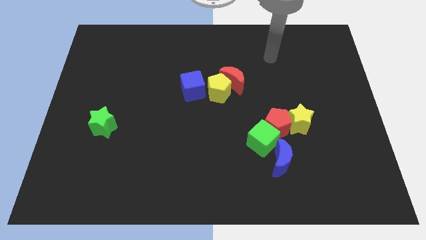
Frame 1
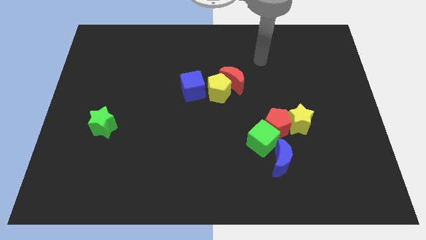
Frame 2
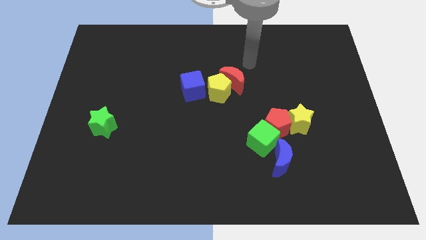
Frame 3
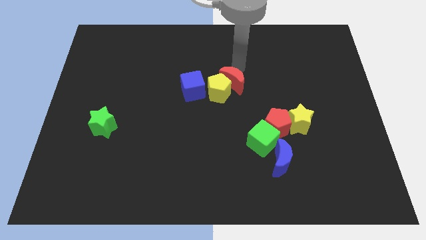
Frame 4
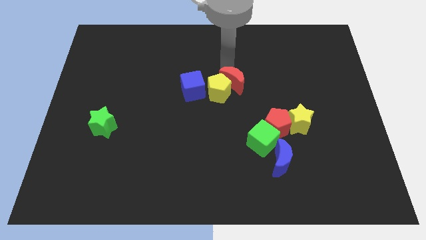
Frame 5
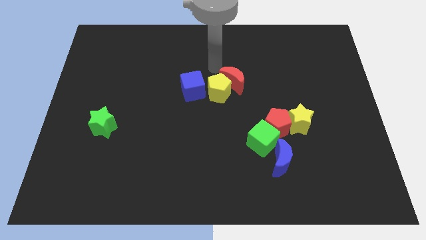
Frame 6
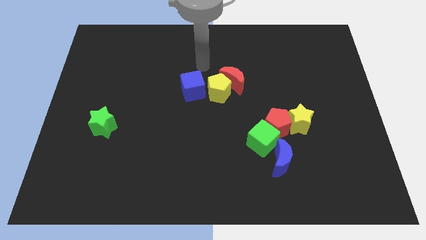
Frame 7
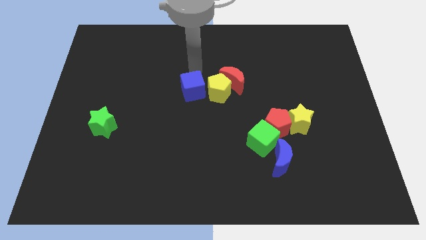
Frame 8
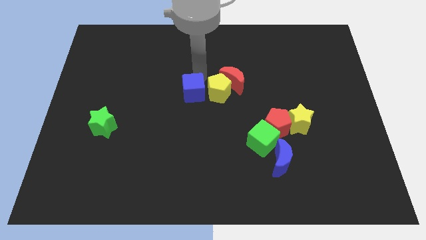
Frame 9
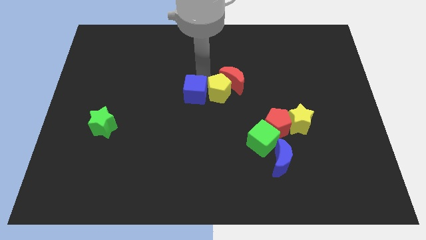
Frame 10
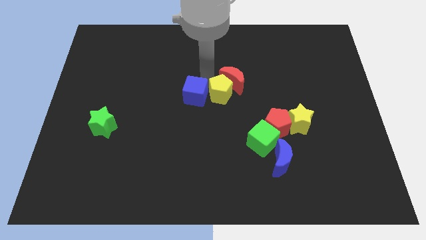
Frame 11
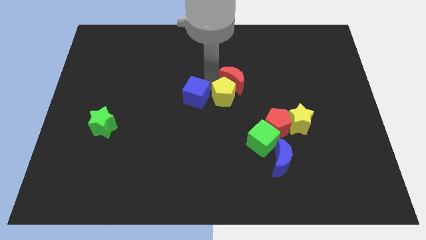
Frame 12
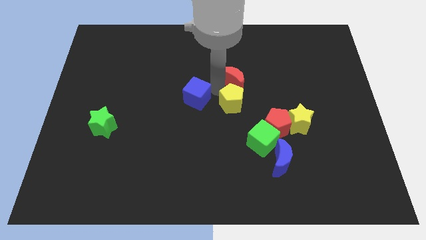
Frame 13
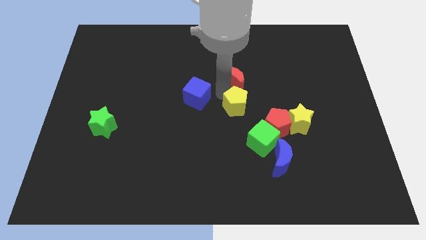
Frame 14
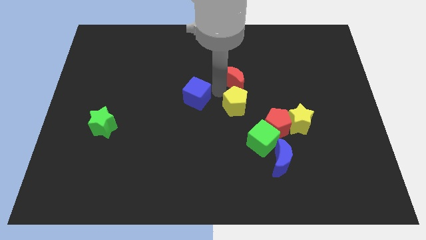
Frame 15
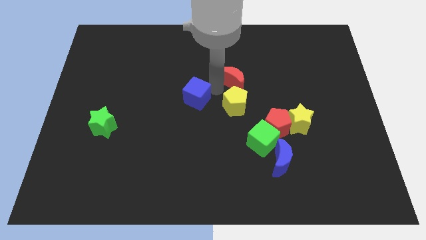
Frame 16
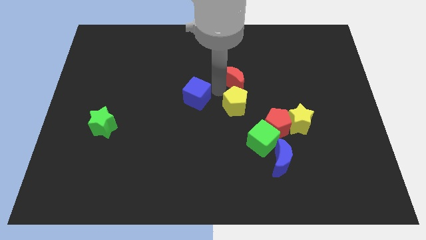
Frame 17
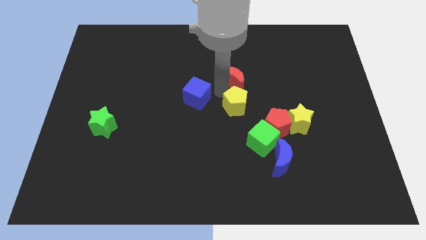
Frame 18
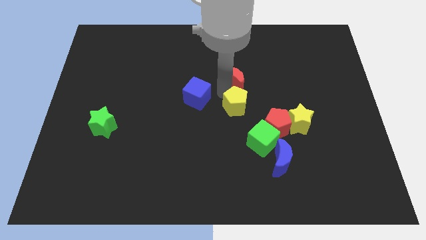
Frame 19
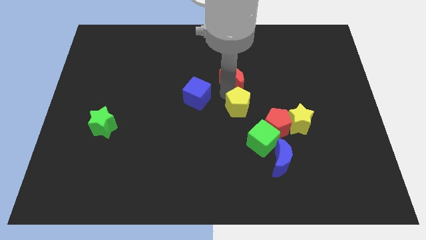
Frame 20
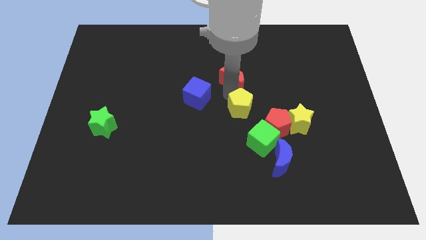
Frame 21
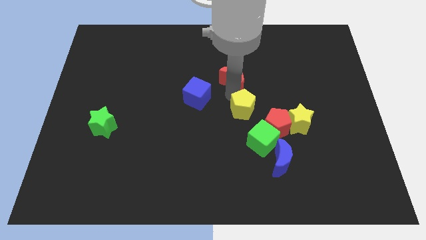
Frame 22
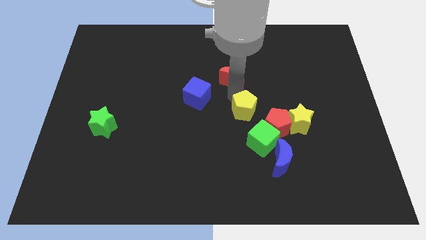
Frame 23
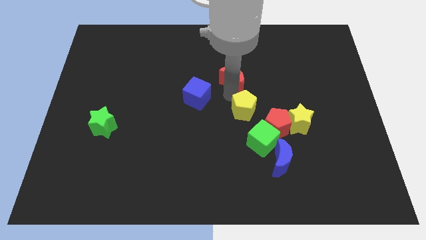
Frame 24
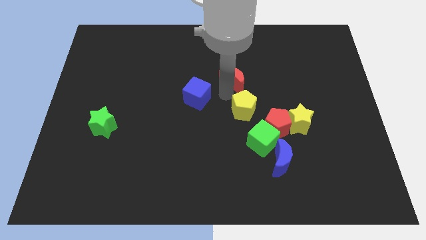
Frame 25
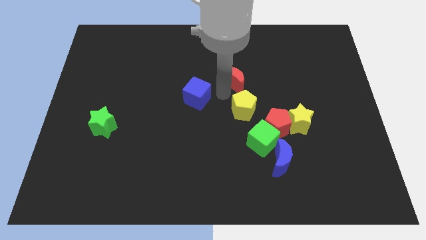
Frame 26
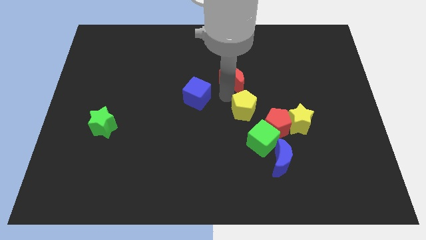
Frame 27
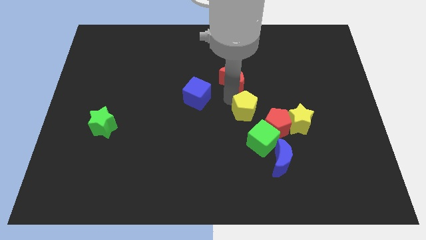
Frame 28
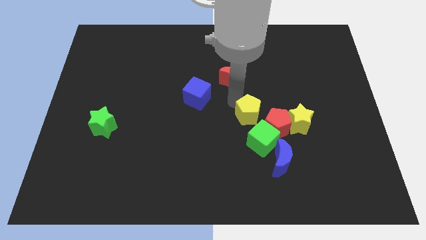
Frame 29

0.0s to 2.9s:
move the yellow pentagon away from the red moon and blue cube

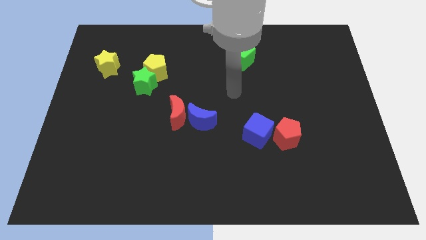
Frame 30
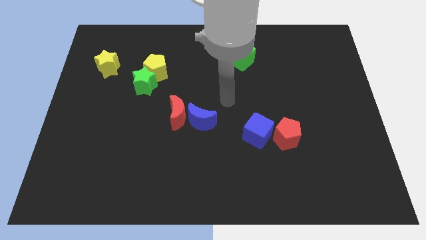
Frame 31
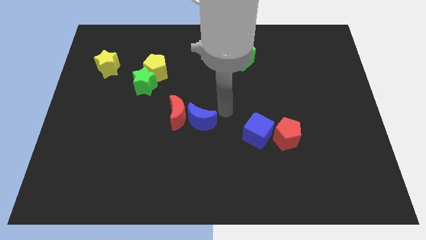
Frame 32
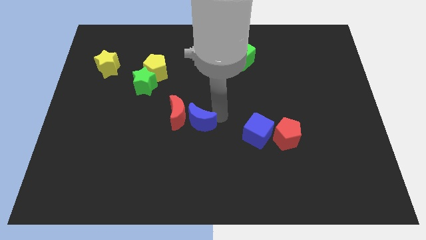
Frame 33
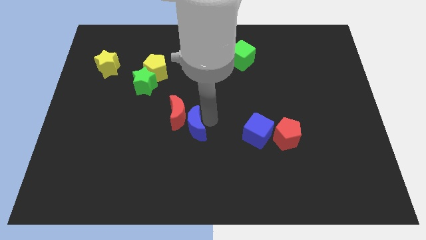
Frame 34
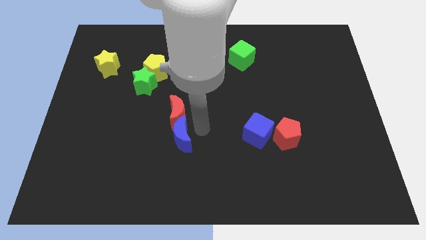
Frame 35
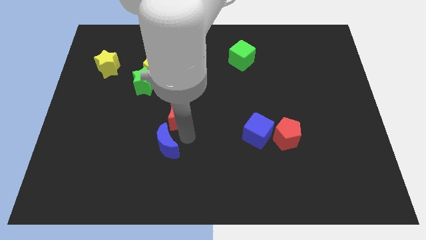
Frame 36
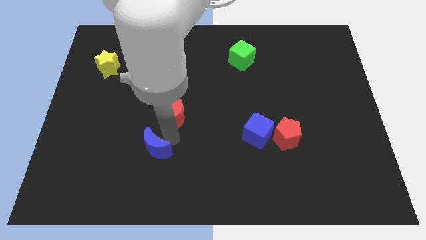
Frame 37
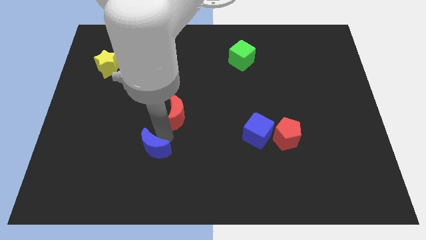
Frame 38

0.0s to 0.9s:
separate the red moon from the blue moon

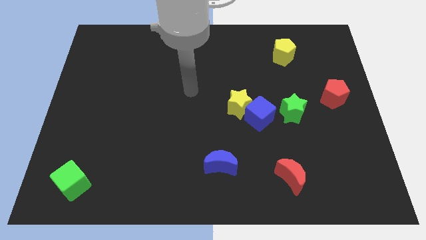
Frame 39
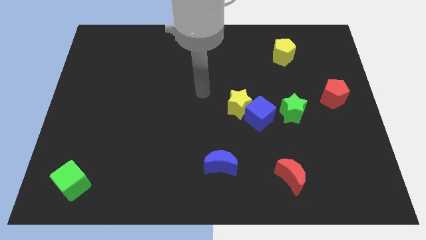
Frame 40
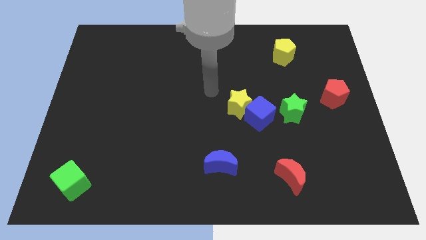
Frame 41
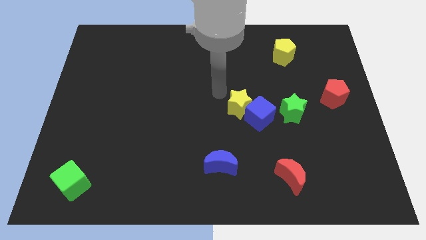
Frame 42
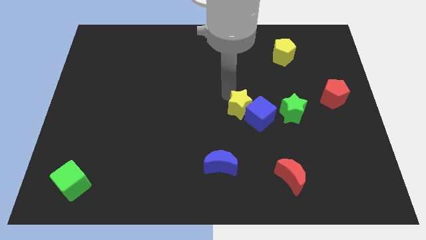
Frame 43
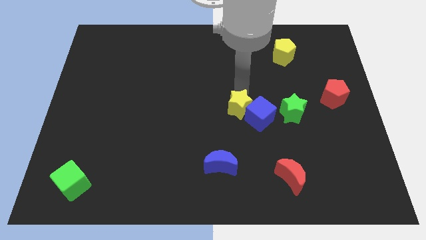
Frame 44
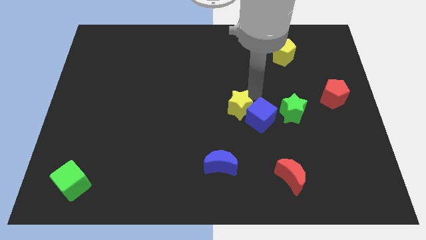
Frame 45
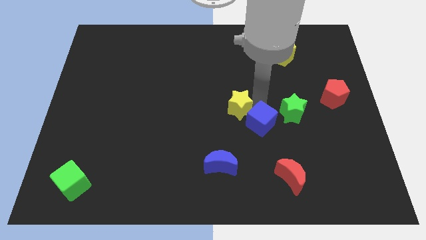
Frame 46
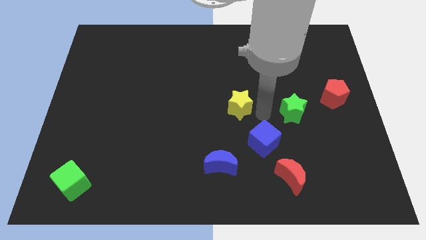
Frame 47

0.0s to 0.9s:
move the yellow star away from the blue cube

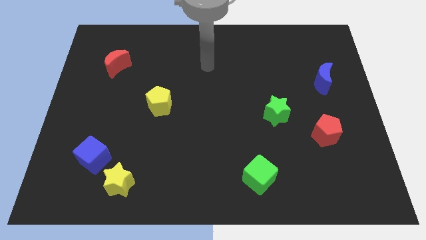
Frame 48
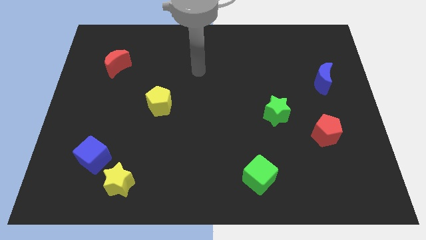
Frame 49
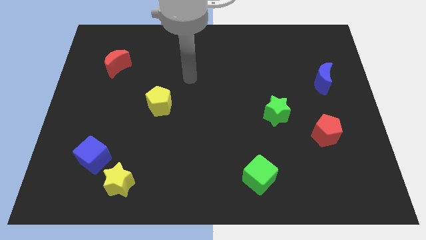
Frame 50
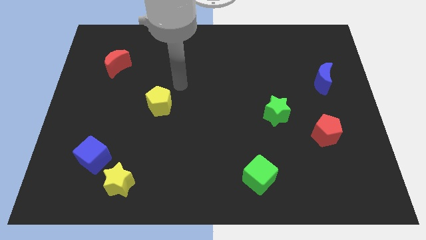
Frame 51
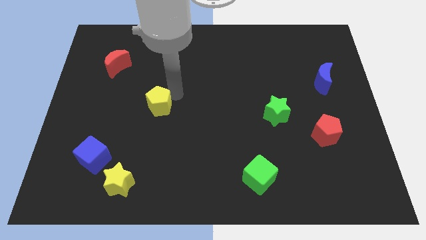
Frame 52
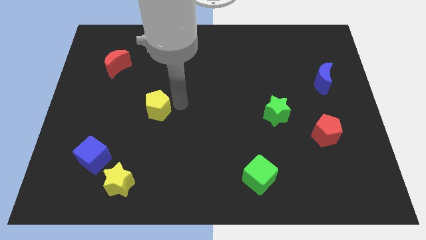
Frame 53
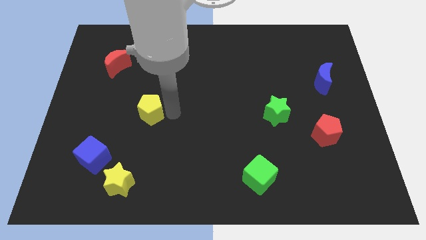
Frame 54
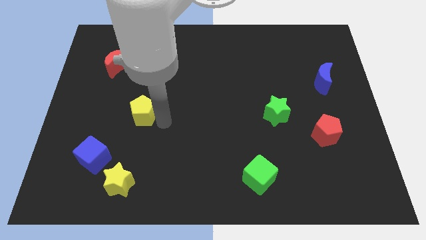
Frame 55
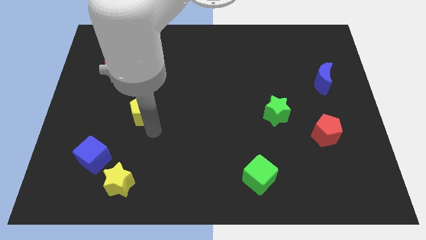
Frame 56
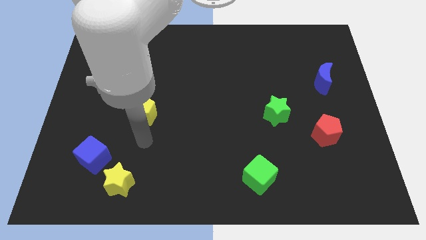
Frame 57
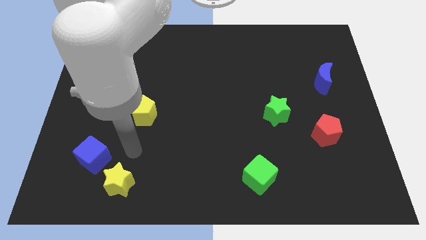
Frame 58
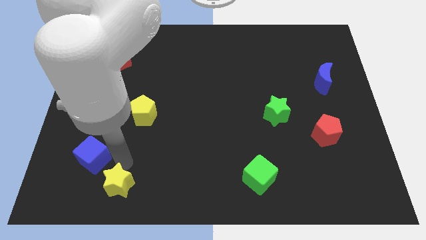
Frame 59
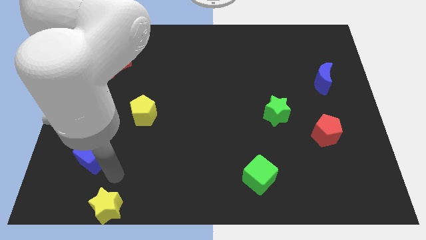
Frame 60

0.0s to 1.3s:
separate the blue cube from the yellow star

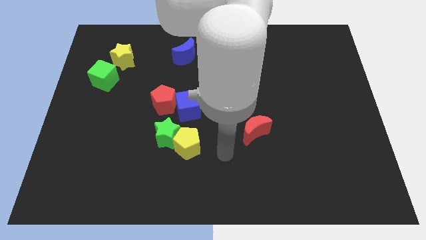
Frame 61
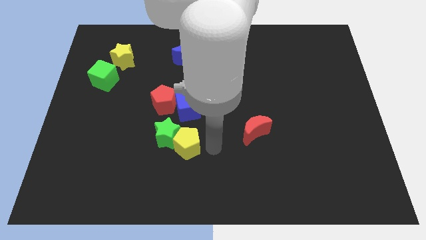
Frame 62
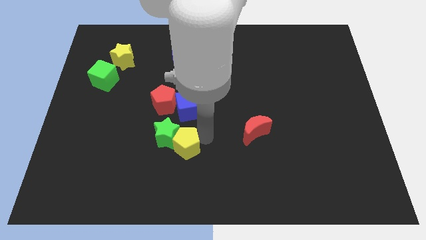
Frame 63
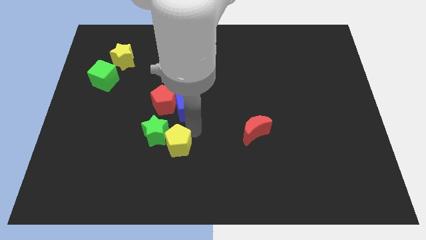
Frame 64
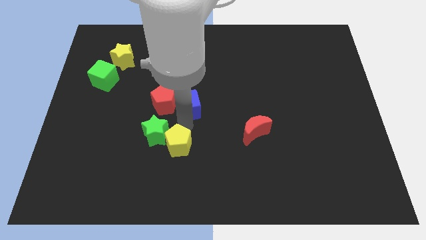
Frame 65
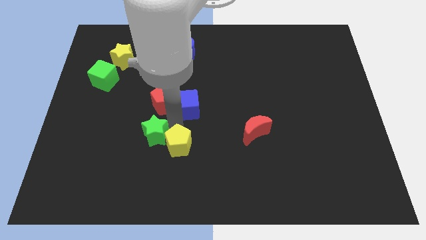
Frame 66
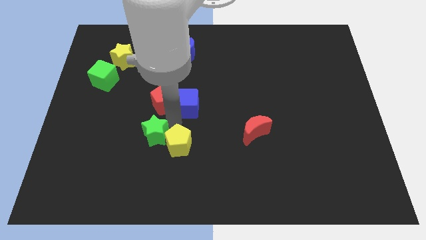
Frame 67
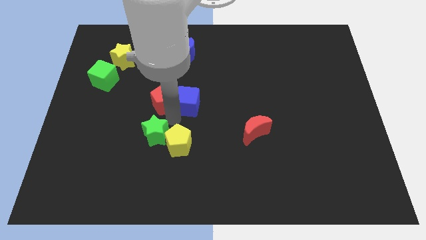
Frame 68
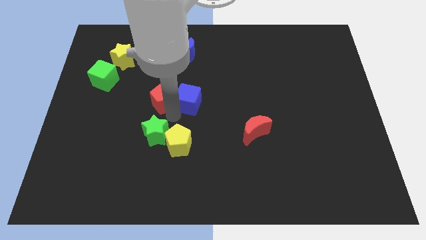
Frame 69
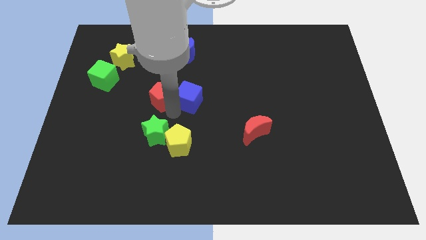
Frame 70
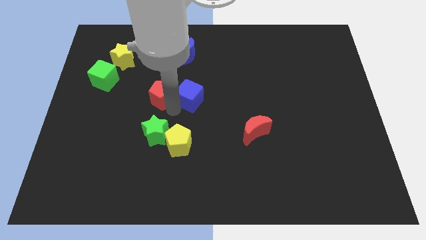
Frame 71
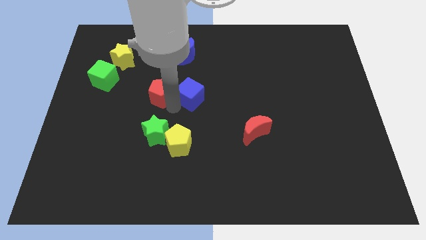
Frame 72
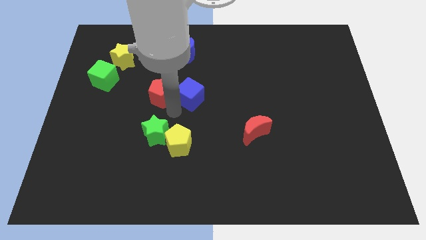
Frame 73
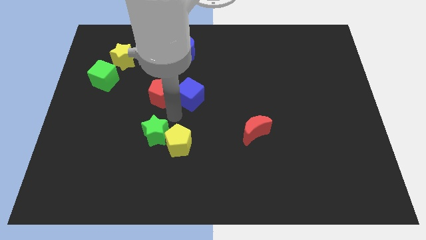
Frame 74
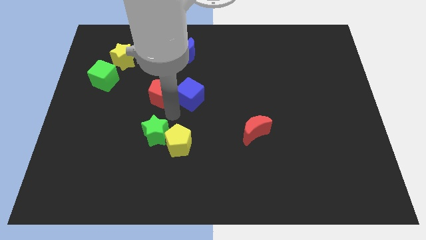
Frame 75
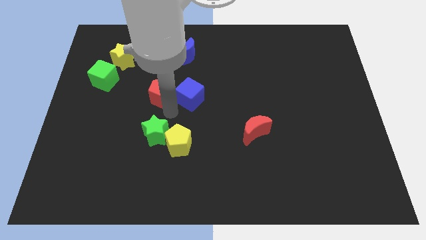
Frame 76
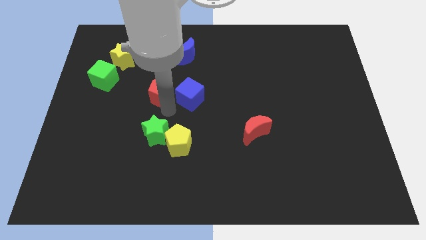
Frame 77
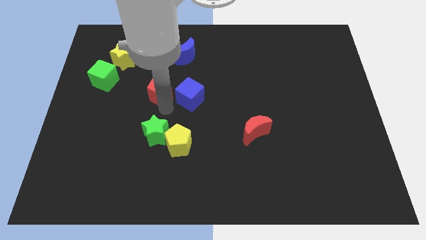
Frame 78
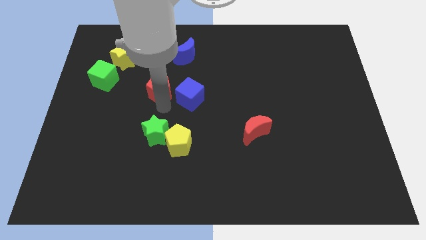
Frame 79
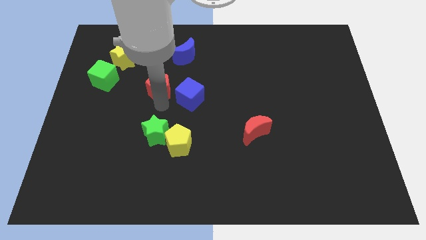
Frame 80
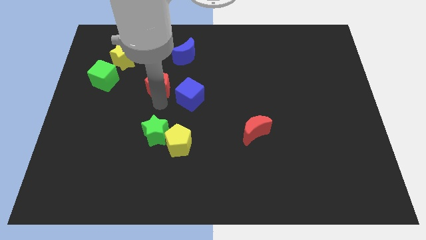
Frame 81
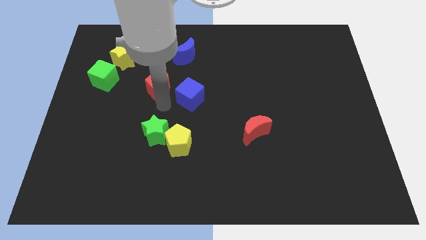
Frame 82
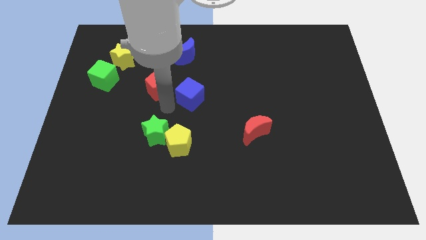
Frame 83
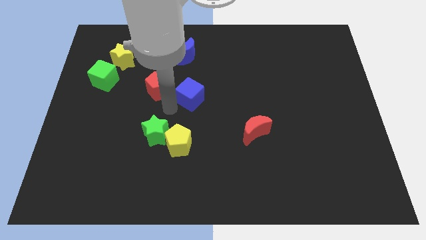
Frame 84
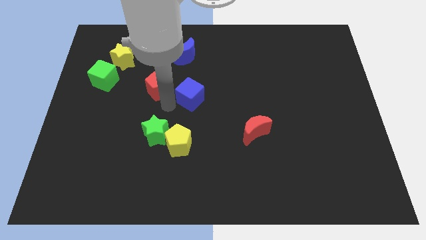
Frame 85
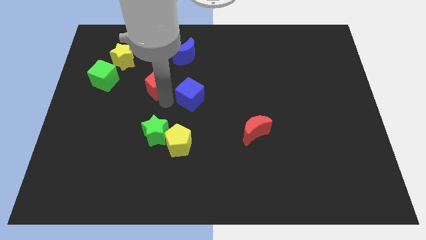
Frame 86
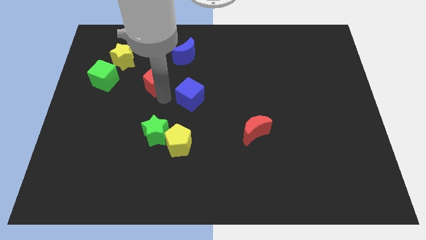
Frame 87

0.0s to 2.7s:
move the red pentagon away from the blue cube and green star

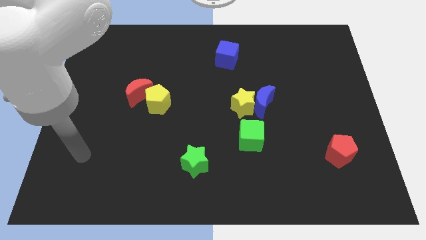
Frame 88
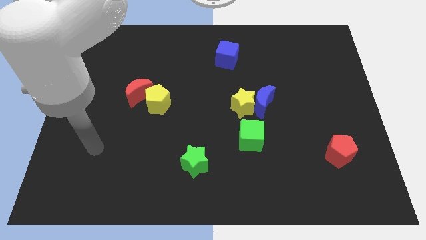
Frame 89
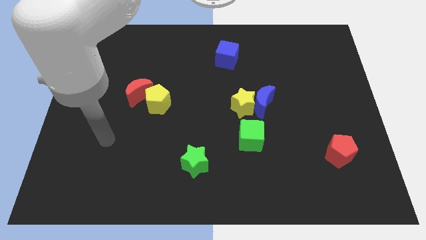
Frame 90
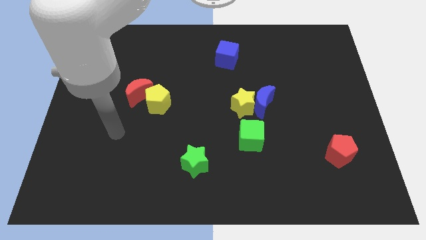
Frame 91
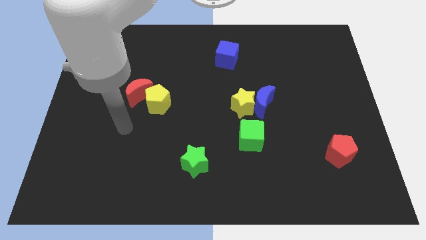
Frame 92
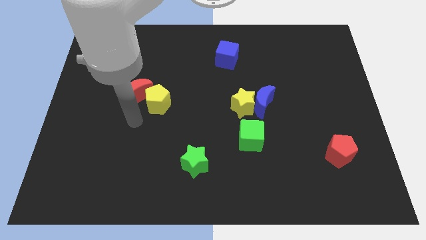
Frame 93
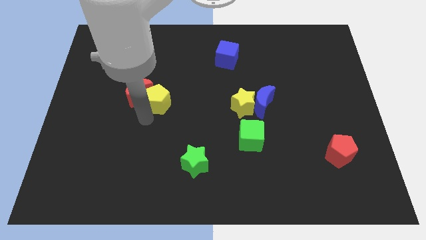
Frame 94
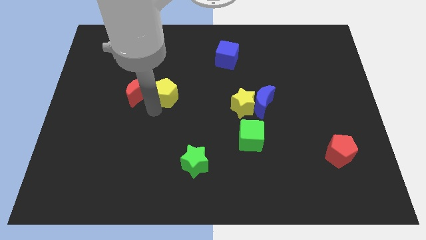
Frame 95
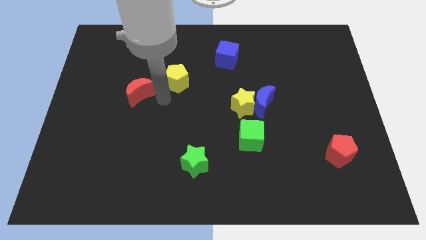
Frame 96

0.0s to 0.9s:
pull the red moon apart from the yellow pentagon
